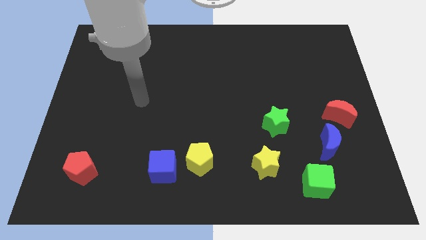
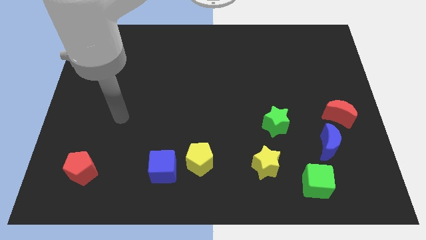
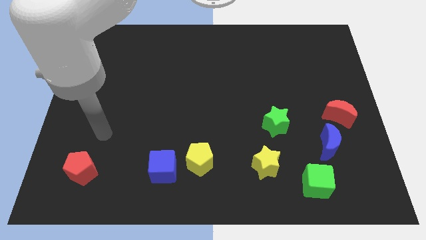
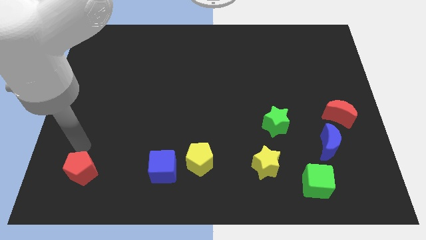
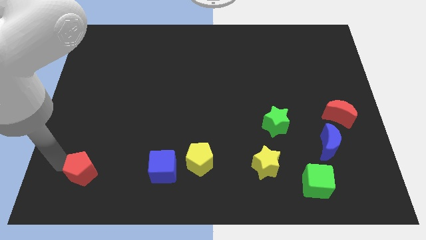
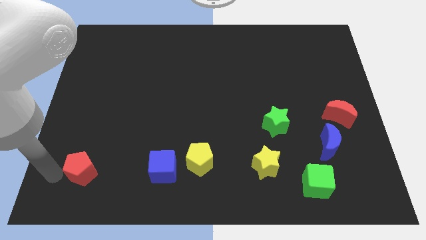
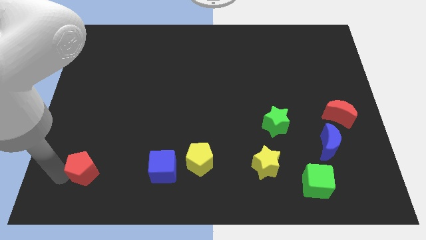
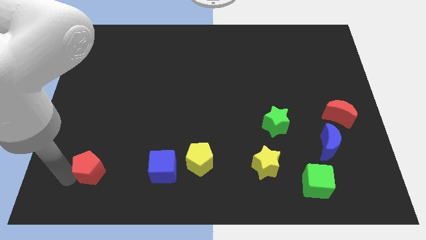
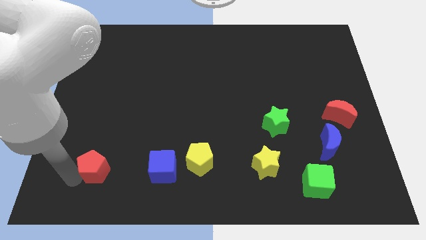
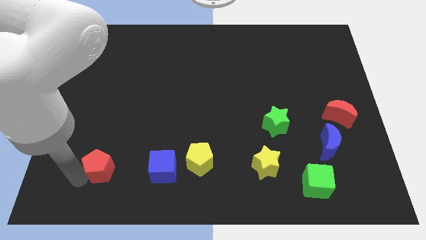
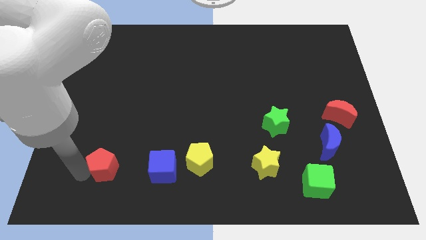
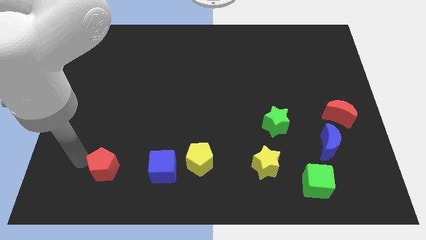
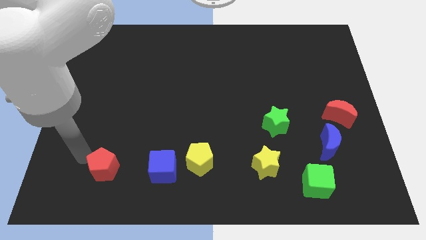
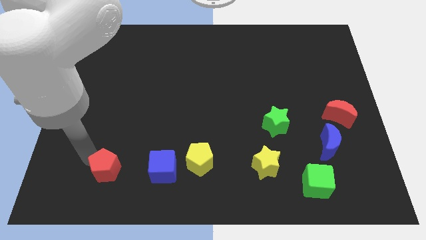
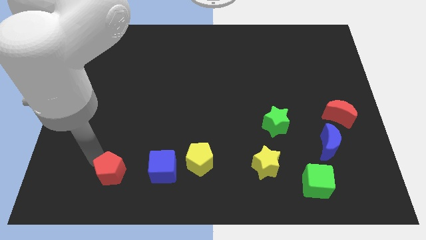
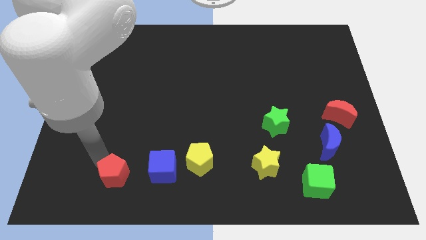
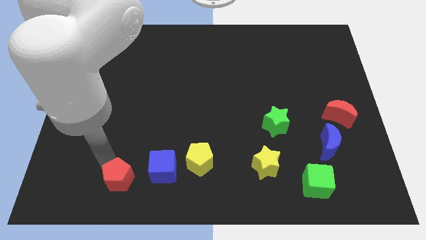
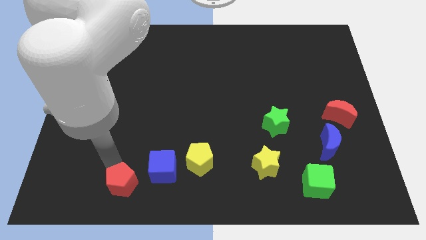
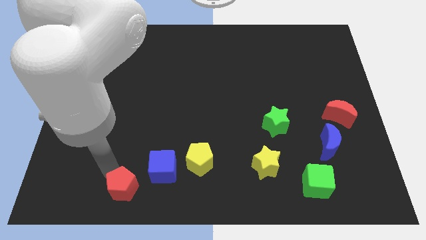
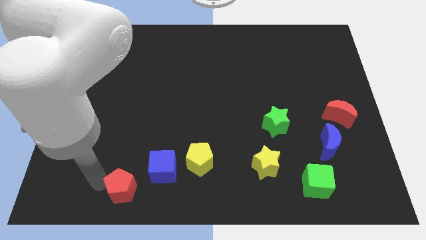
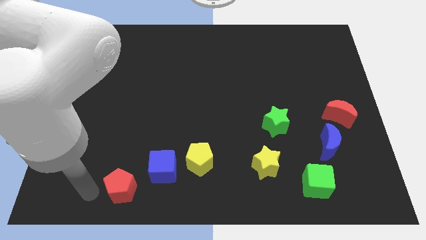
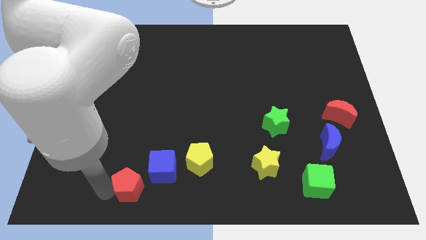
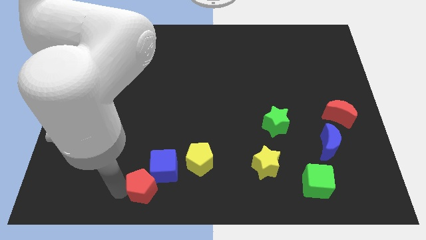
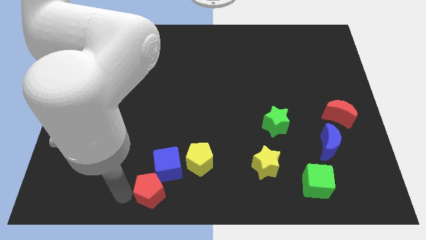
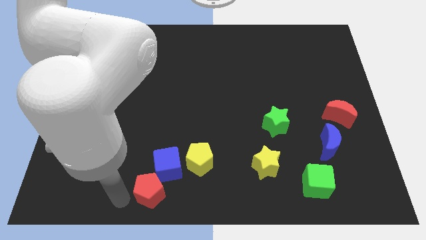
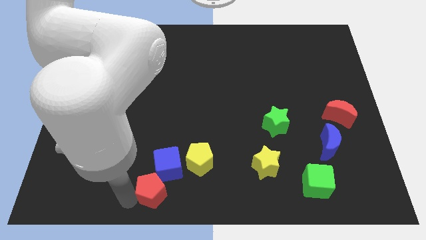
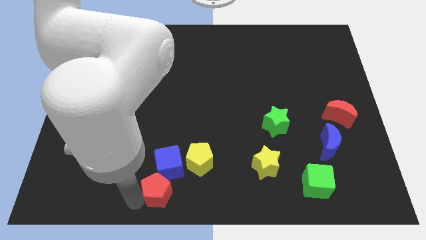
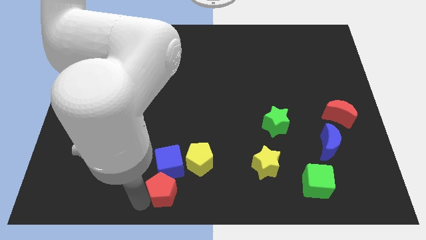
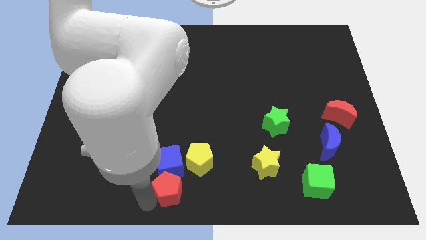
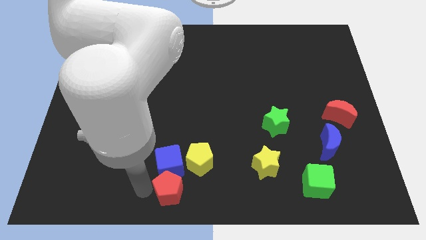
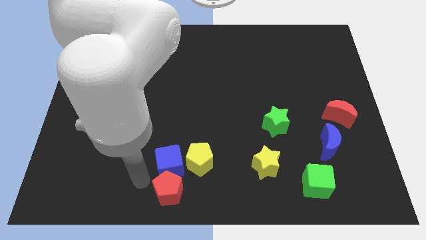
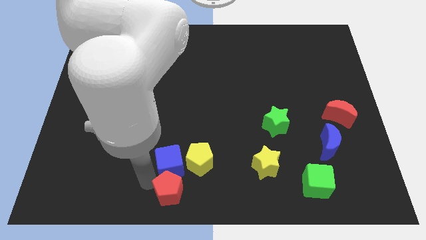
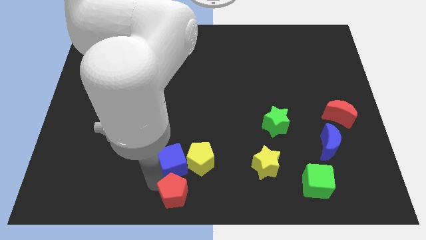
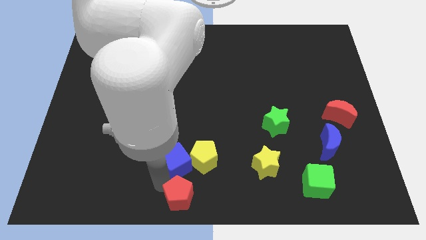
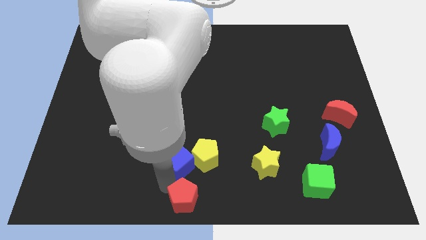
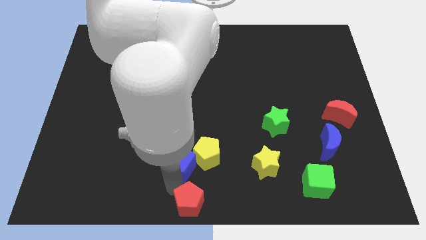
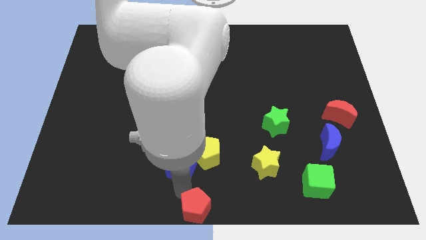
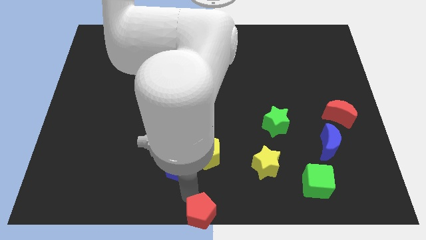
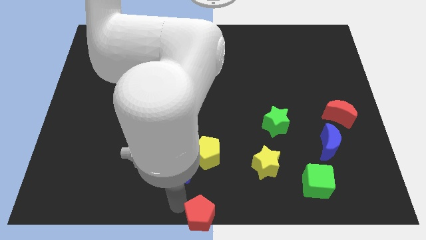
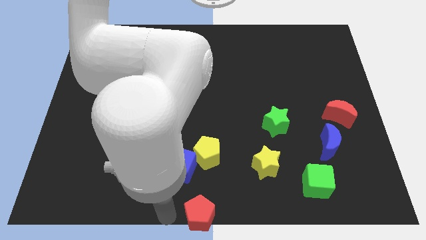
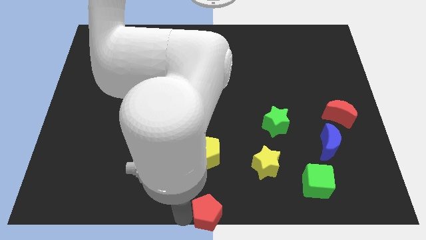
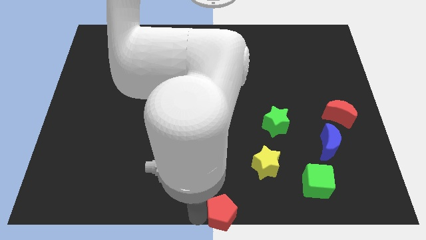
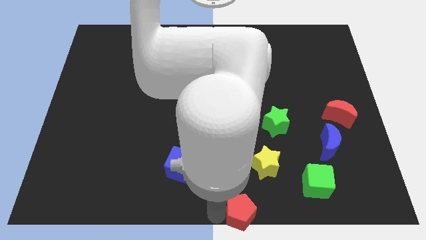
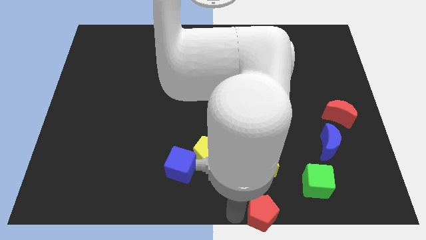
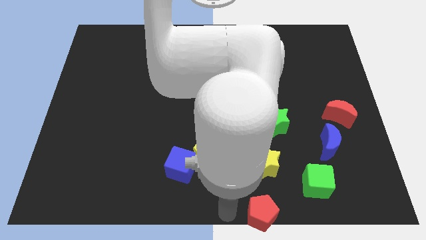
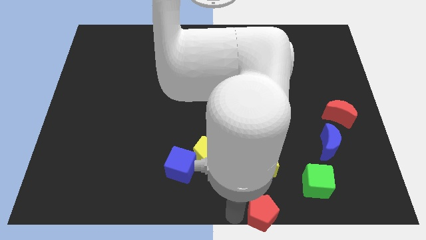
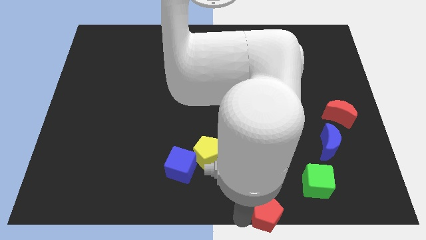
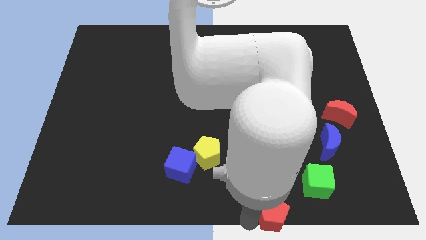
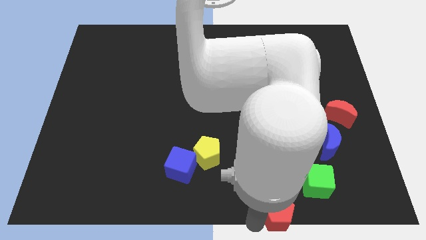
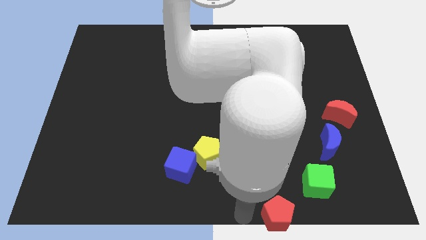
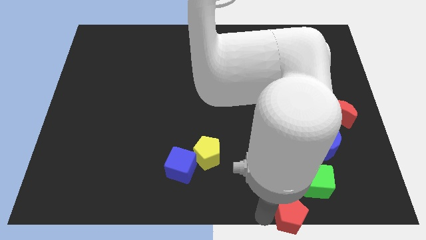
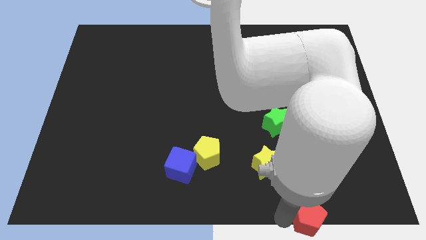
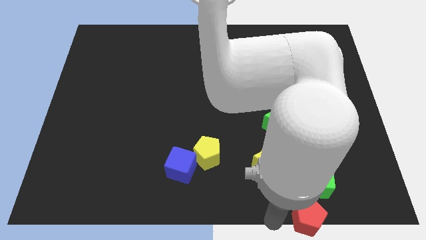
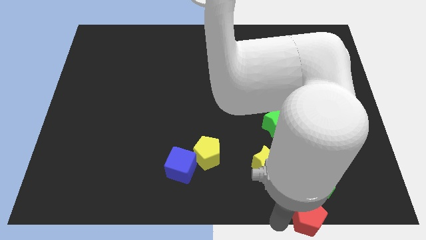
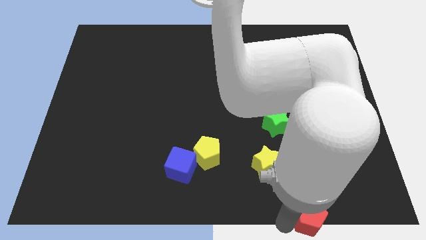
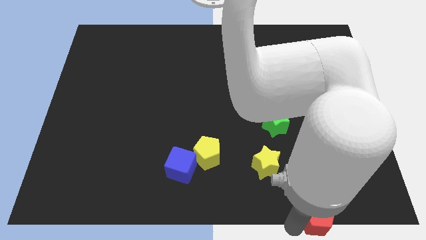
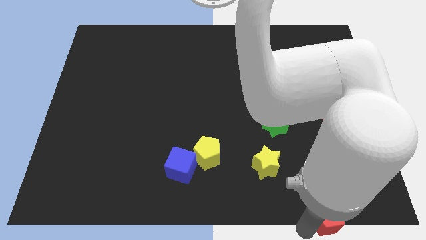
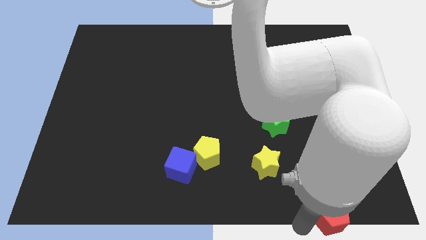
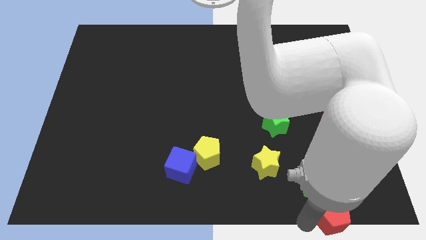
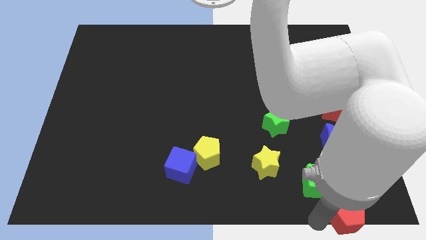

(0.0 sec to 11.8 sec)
slide the red pentagon to the bottom right corner
